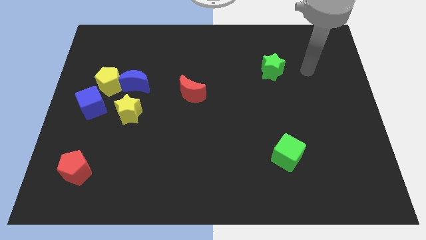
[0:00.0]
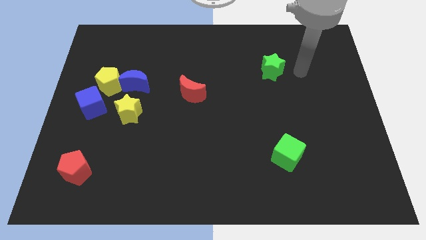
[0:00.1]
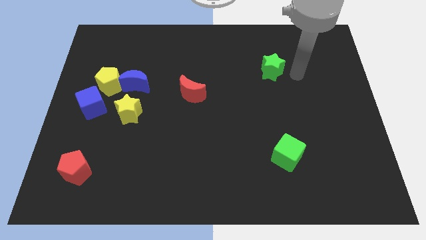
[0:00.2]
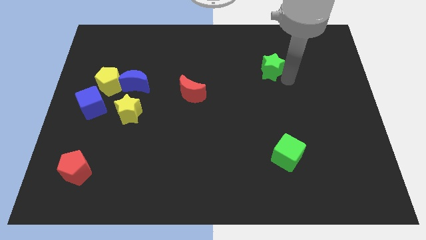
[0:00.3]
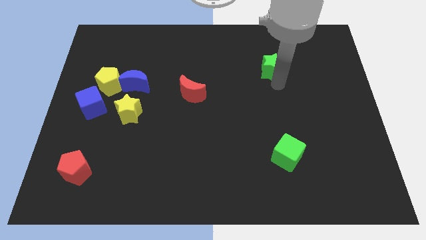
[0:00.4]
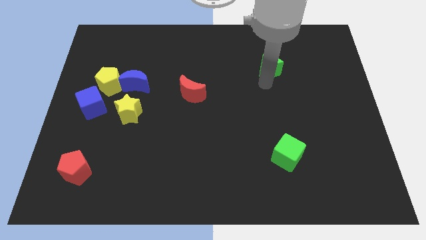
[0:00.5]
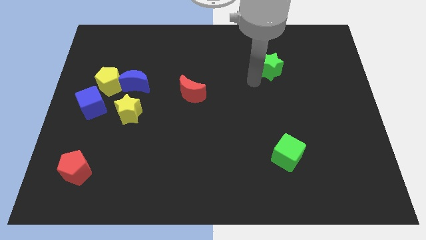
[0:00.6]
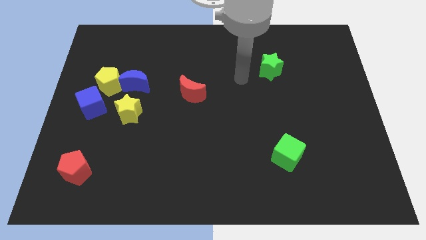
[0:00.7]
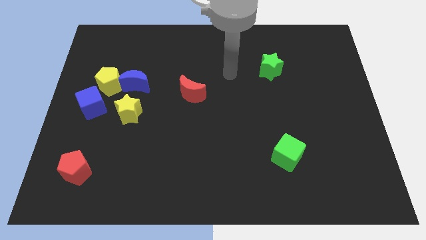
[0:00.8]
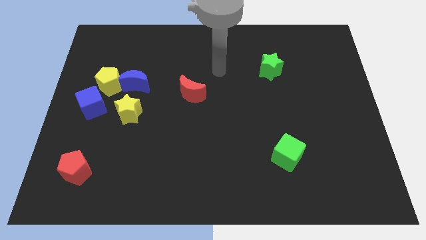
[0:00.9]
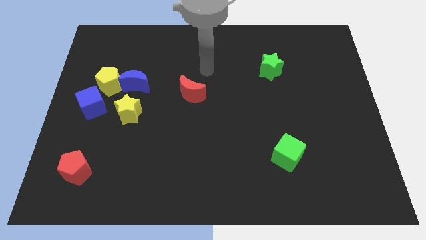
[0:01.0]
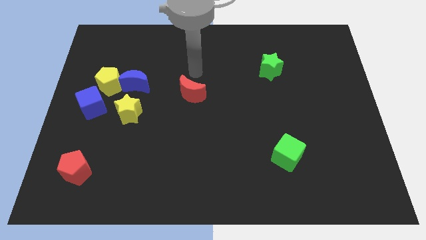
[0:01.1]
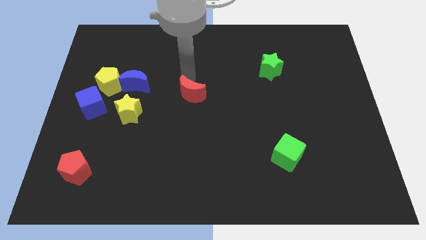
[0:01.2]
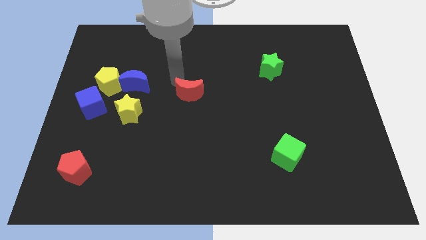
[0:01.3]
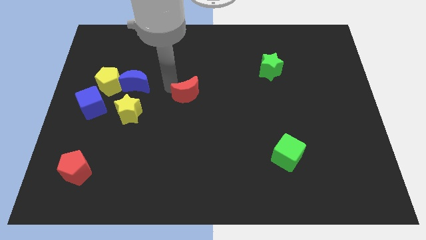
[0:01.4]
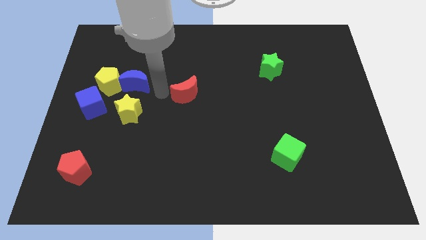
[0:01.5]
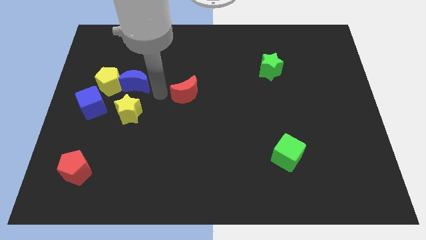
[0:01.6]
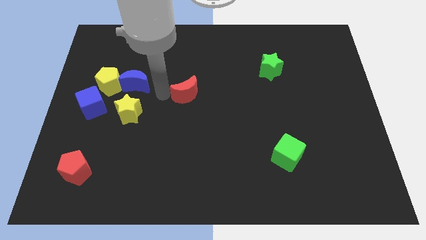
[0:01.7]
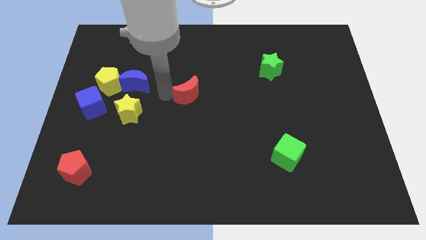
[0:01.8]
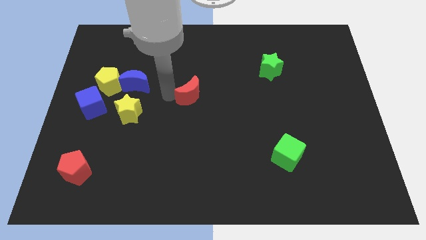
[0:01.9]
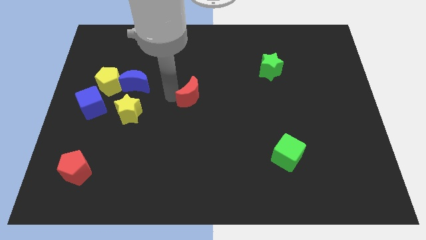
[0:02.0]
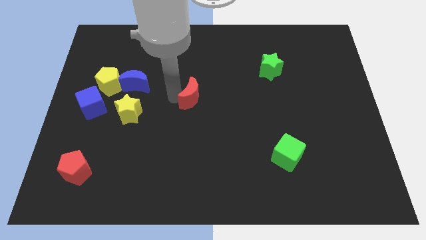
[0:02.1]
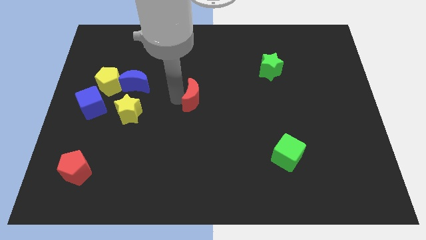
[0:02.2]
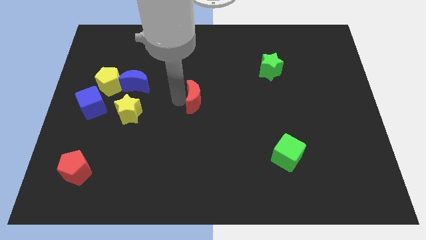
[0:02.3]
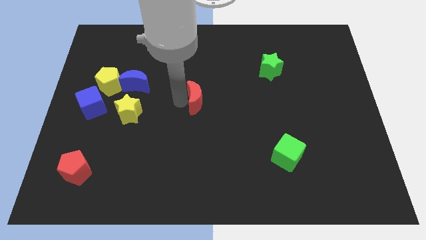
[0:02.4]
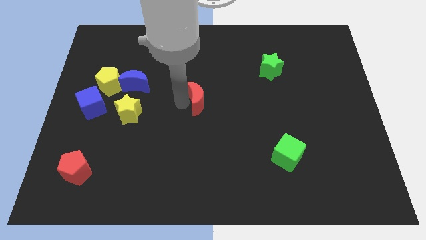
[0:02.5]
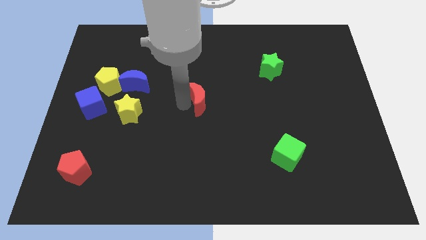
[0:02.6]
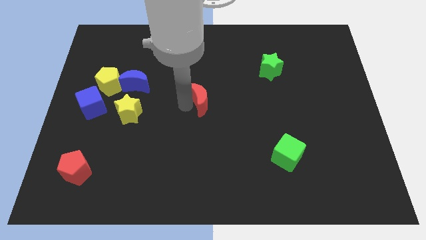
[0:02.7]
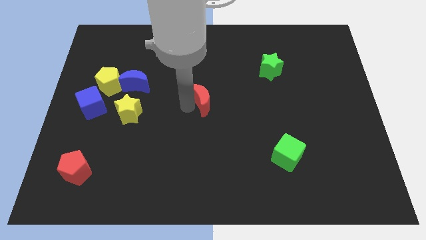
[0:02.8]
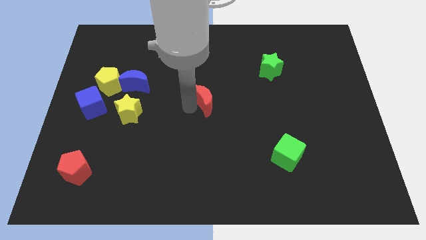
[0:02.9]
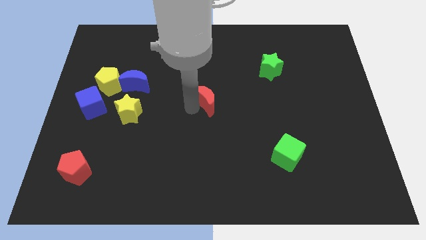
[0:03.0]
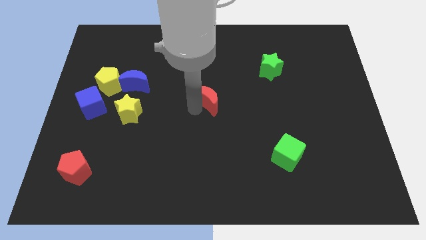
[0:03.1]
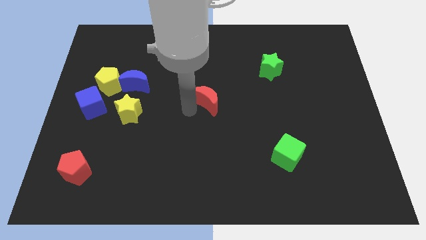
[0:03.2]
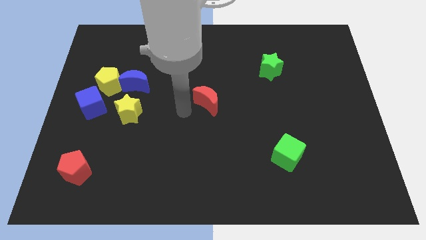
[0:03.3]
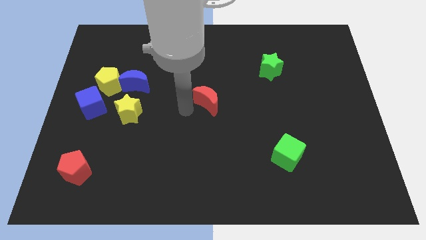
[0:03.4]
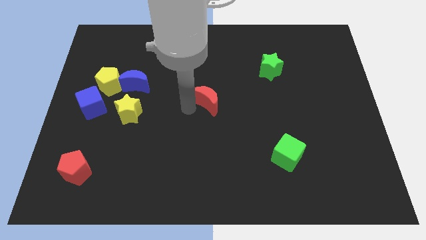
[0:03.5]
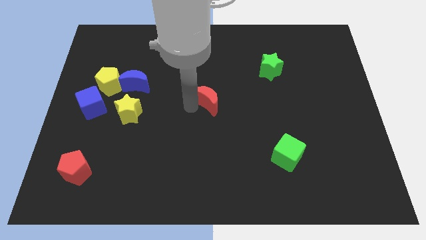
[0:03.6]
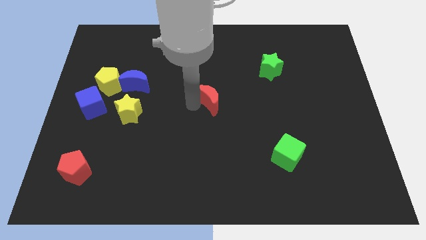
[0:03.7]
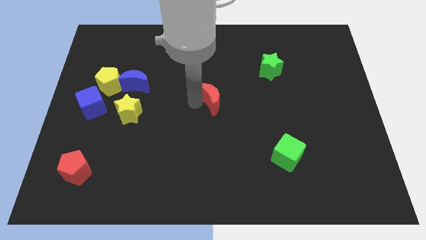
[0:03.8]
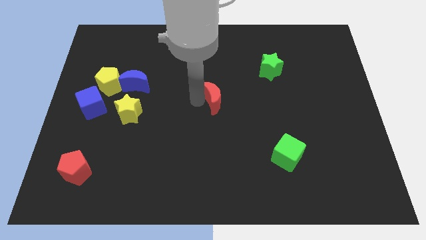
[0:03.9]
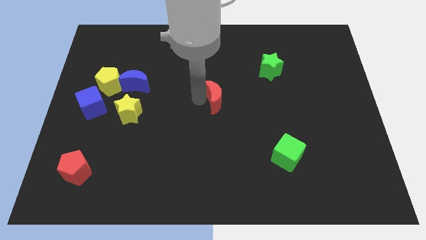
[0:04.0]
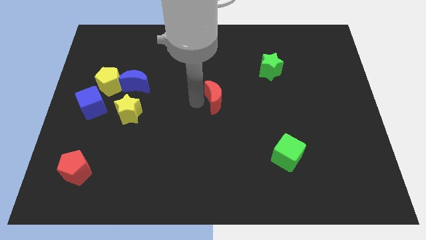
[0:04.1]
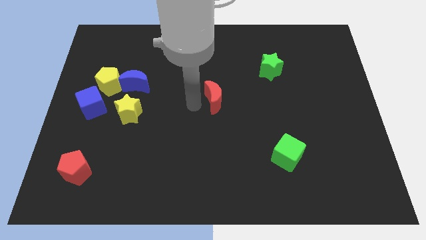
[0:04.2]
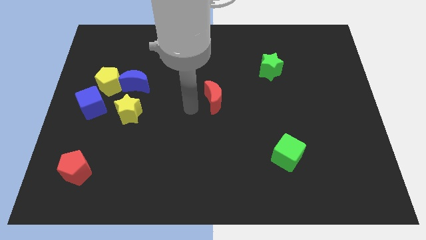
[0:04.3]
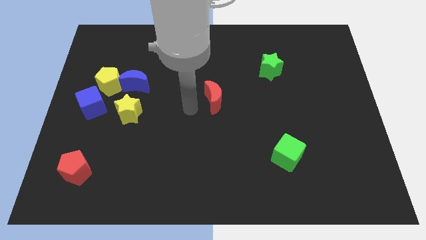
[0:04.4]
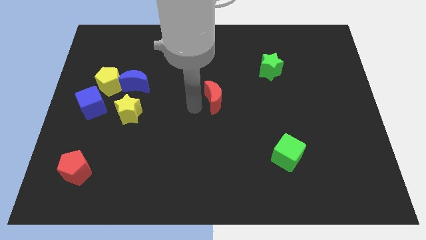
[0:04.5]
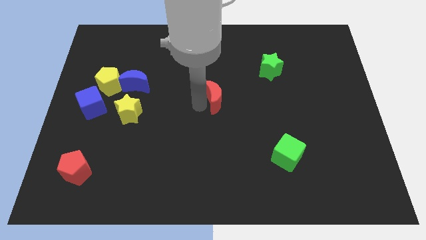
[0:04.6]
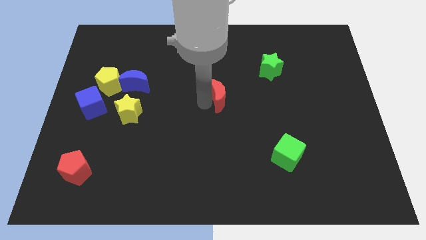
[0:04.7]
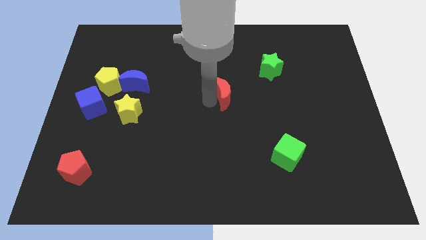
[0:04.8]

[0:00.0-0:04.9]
slide the red moon to the right a little

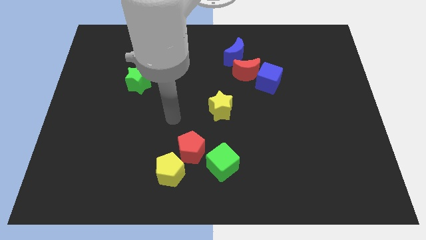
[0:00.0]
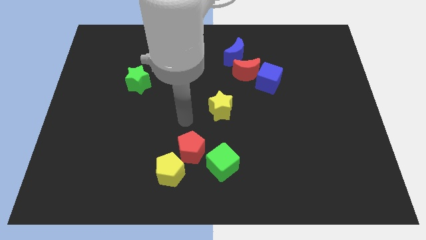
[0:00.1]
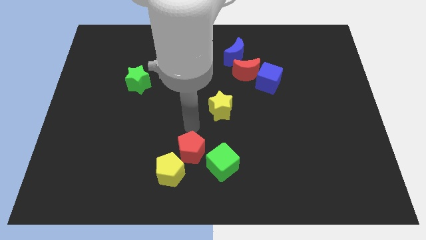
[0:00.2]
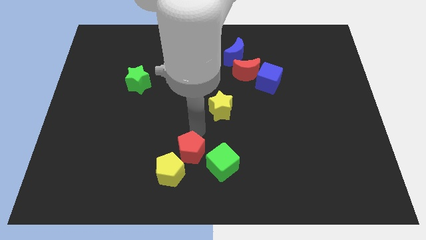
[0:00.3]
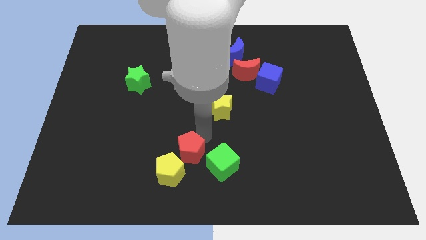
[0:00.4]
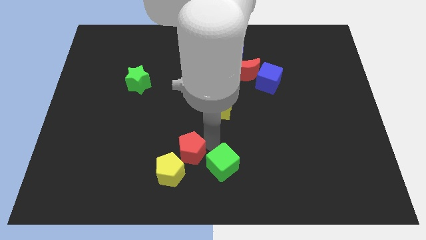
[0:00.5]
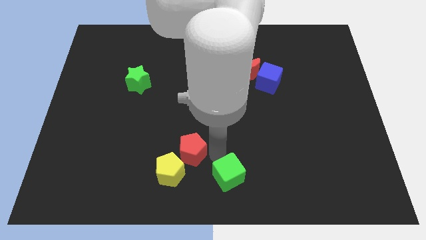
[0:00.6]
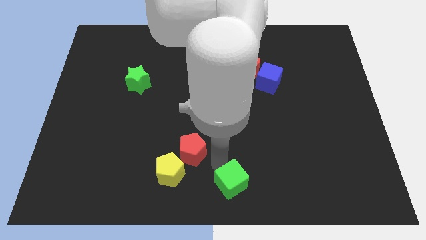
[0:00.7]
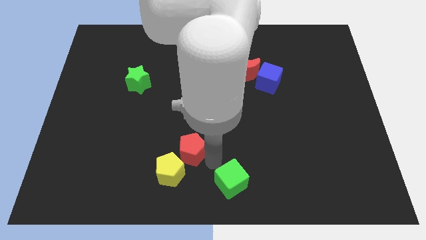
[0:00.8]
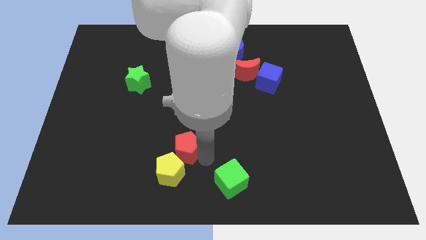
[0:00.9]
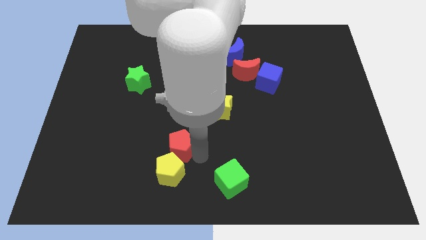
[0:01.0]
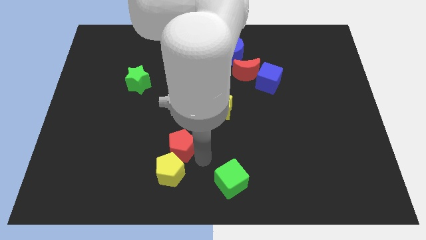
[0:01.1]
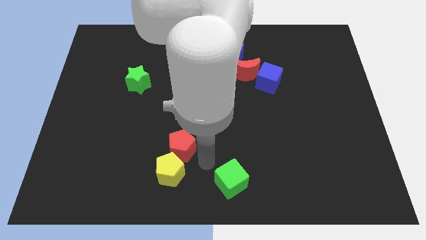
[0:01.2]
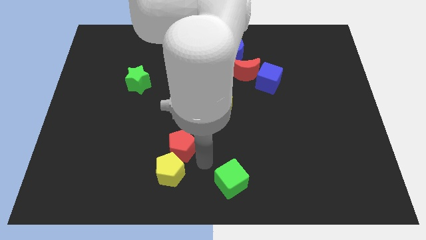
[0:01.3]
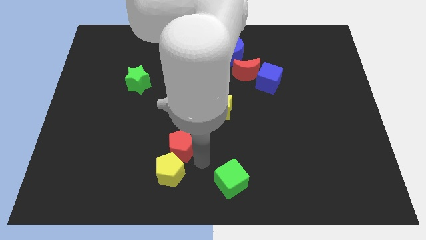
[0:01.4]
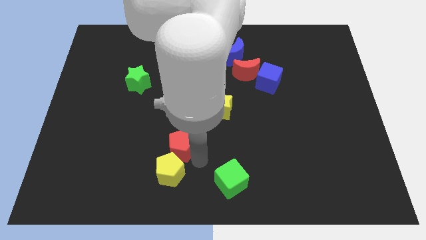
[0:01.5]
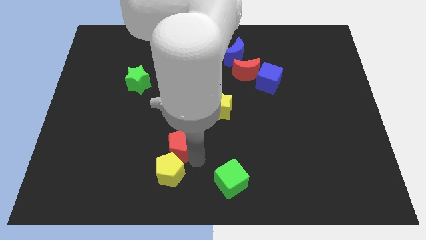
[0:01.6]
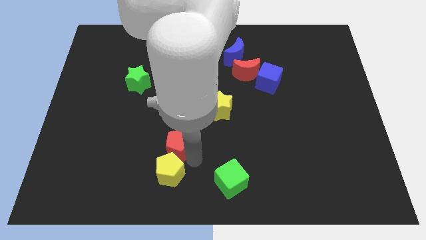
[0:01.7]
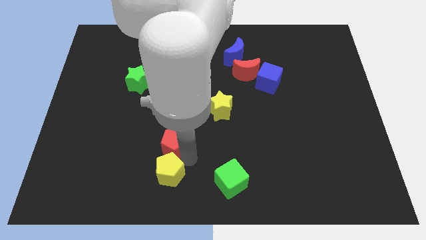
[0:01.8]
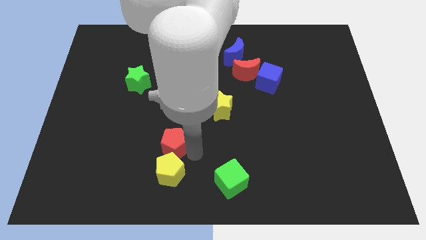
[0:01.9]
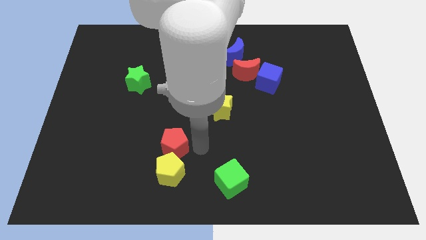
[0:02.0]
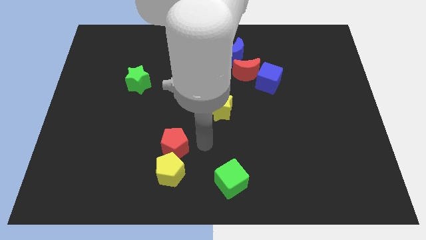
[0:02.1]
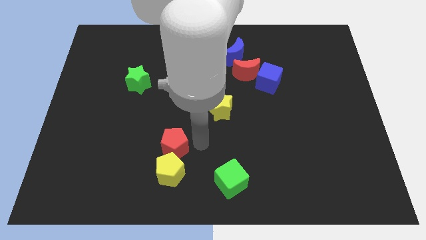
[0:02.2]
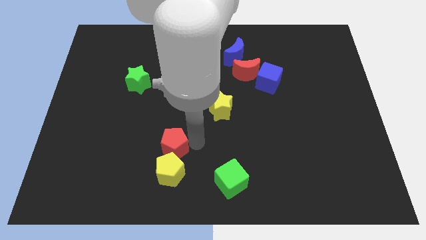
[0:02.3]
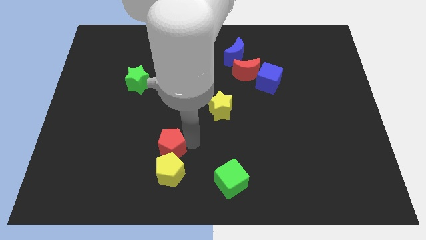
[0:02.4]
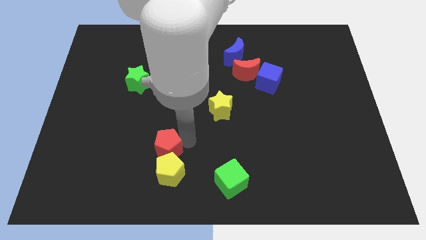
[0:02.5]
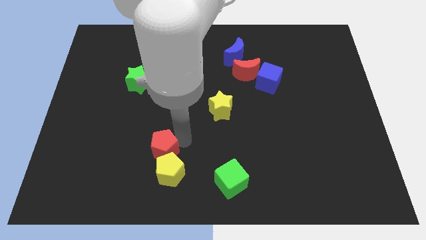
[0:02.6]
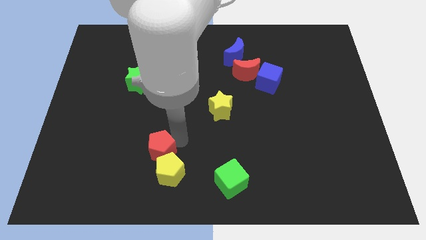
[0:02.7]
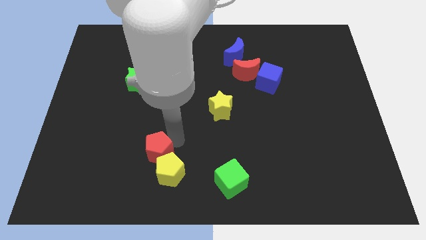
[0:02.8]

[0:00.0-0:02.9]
slide the red pentagon left a little
